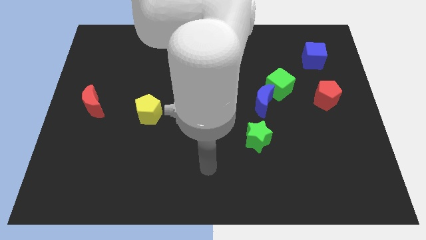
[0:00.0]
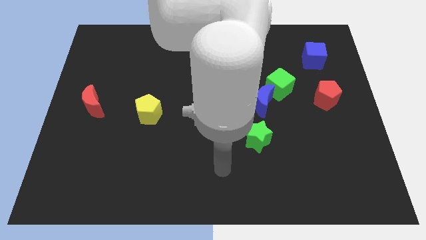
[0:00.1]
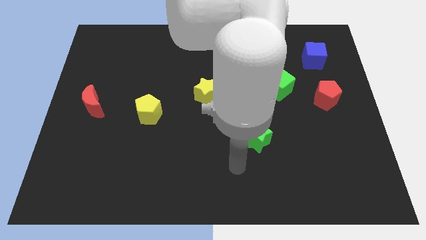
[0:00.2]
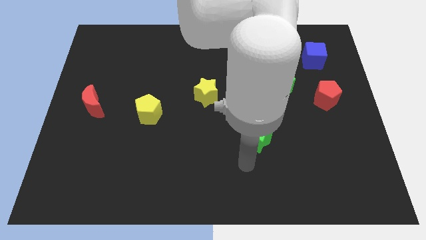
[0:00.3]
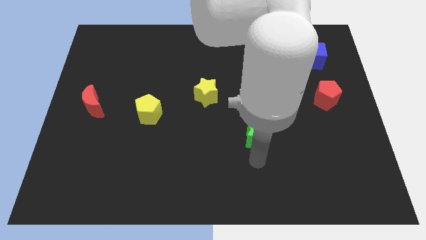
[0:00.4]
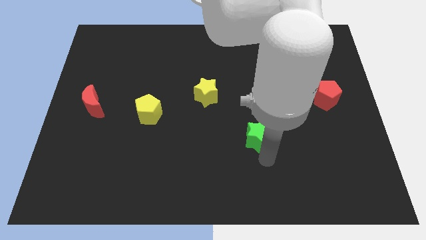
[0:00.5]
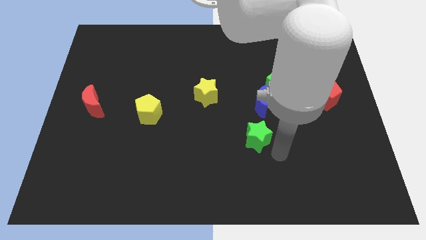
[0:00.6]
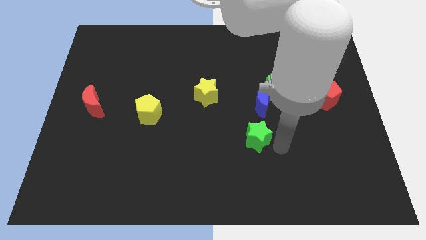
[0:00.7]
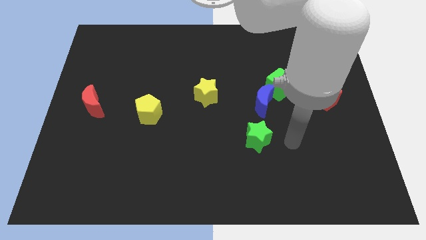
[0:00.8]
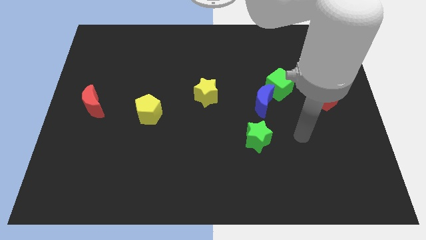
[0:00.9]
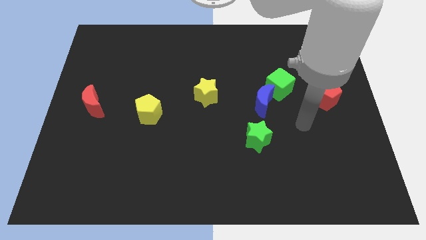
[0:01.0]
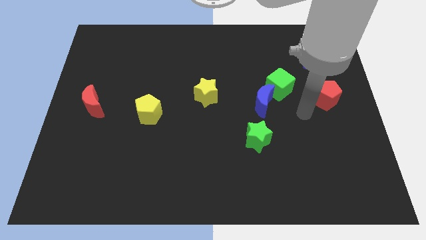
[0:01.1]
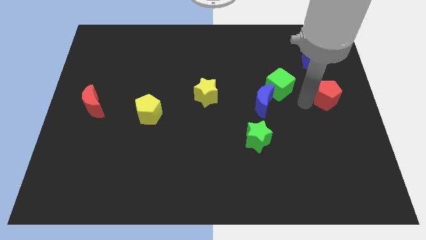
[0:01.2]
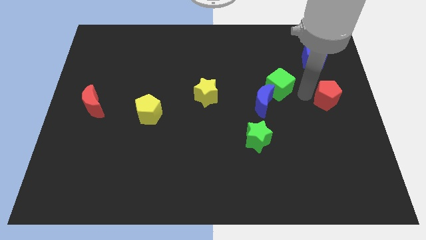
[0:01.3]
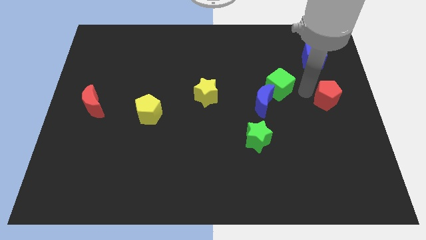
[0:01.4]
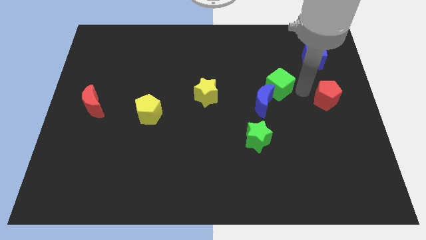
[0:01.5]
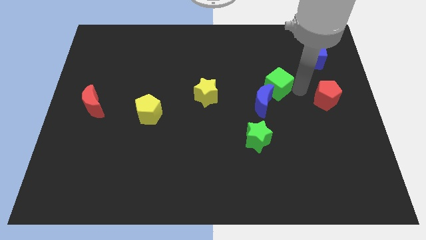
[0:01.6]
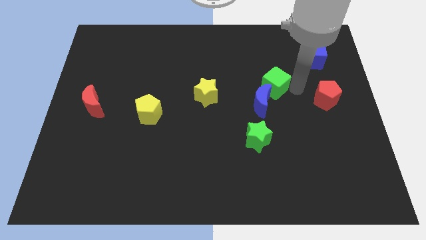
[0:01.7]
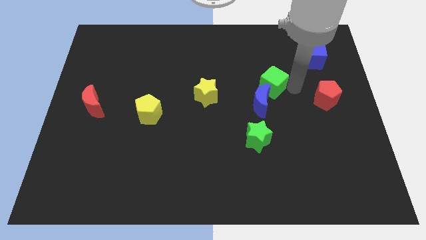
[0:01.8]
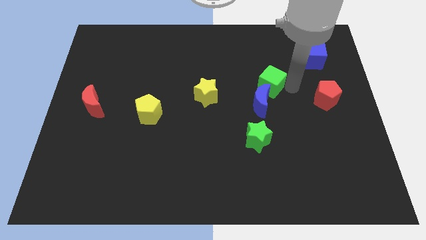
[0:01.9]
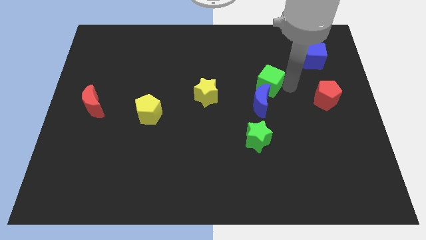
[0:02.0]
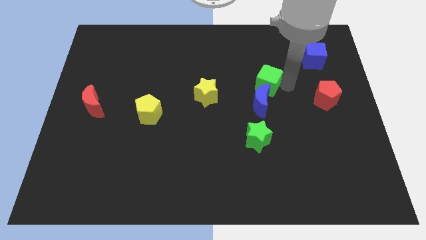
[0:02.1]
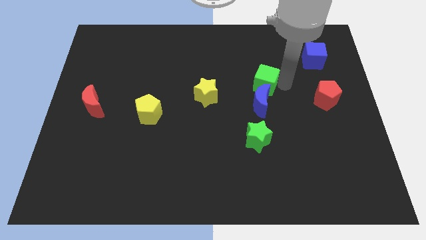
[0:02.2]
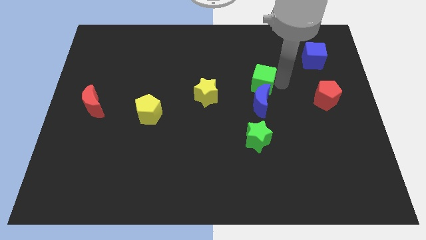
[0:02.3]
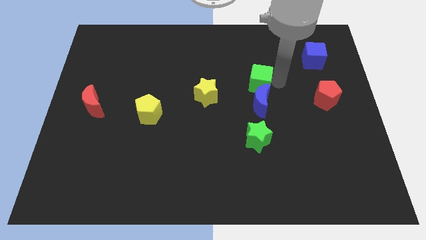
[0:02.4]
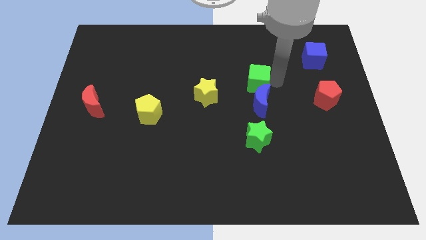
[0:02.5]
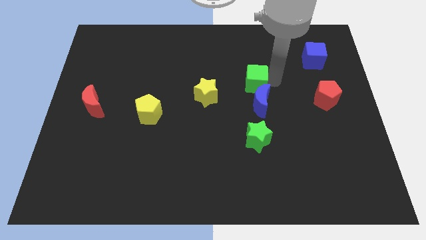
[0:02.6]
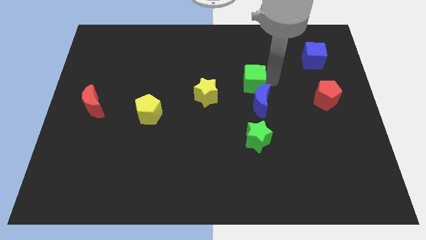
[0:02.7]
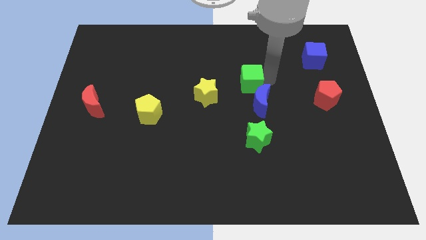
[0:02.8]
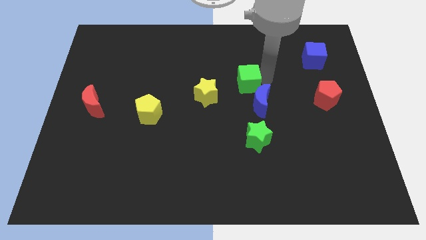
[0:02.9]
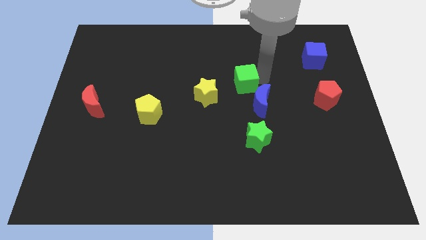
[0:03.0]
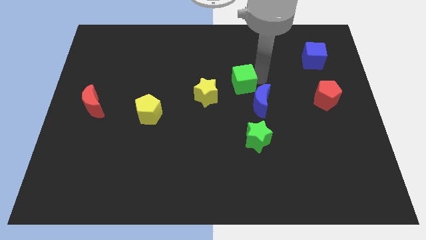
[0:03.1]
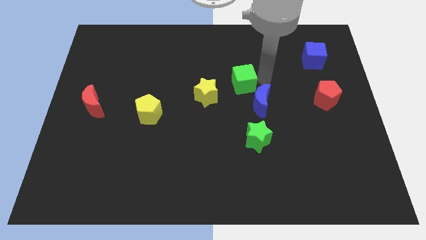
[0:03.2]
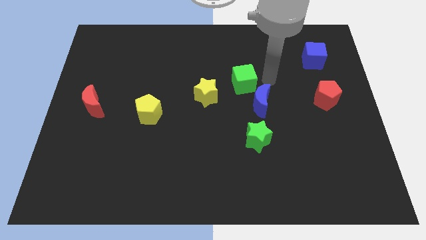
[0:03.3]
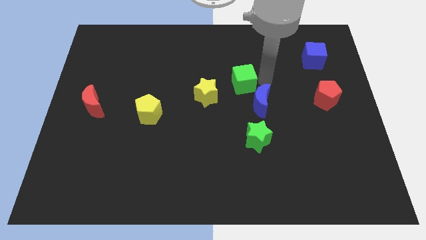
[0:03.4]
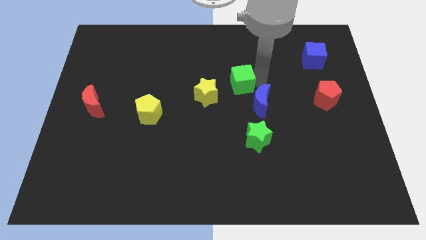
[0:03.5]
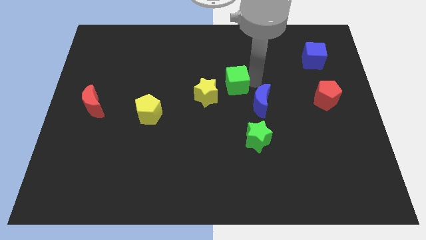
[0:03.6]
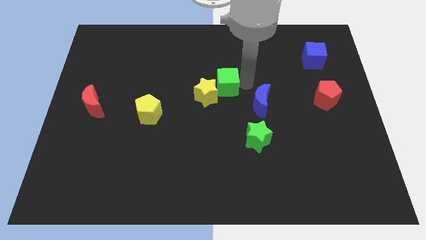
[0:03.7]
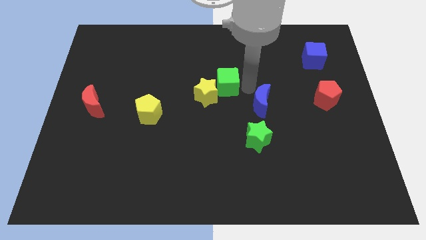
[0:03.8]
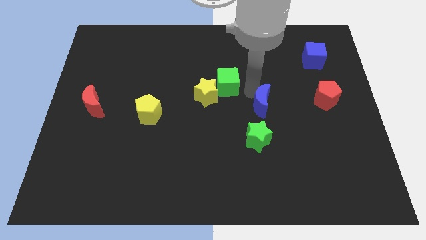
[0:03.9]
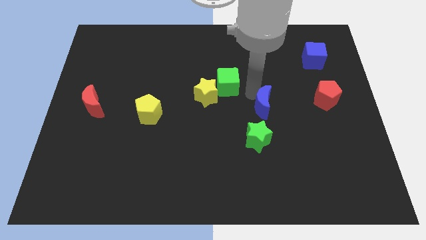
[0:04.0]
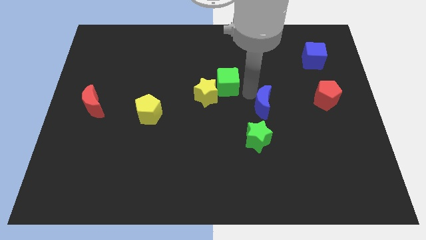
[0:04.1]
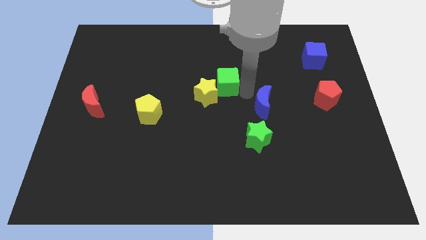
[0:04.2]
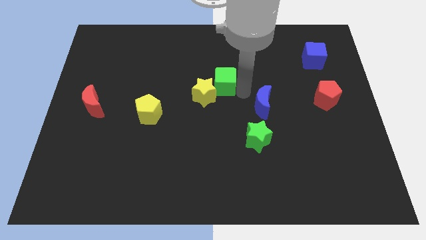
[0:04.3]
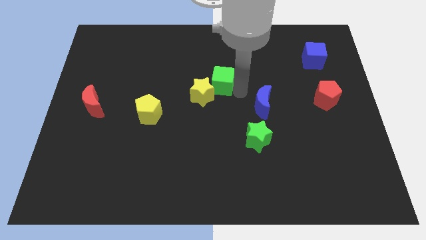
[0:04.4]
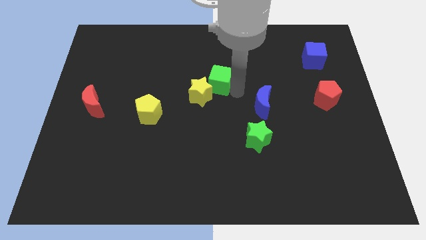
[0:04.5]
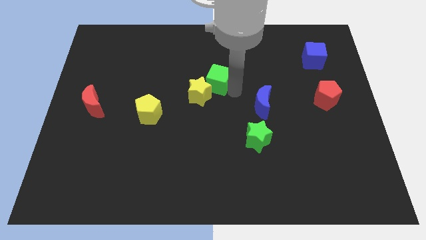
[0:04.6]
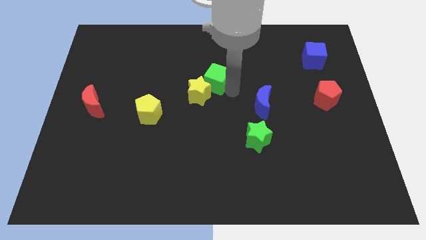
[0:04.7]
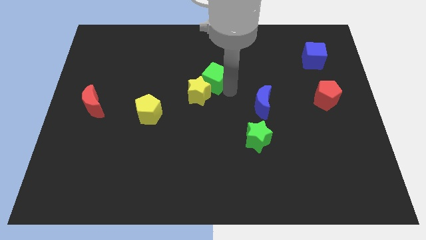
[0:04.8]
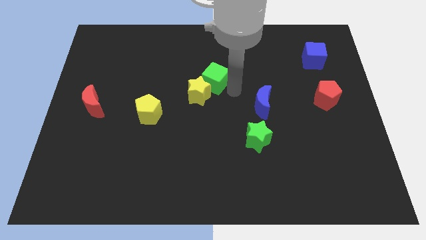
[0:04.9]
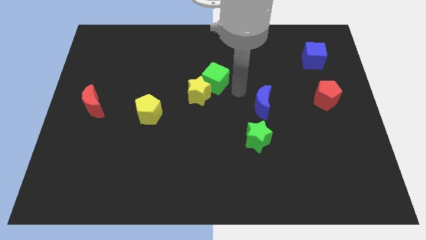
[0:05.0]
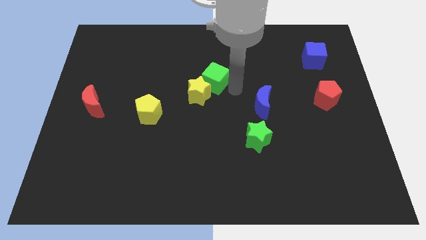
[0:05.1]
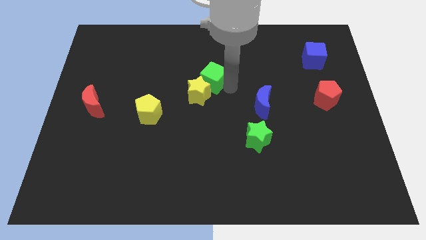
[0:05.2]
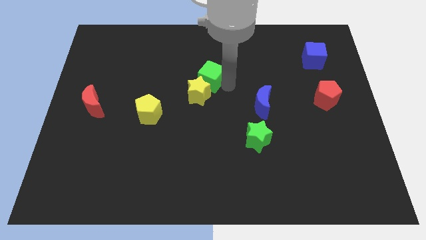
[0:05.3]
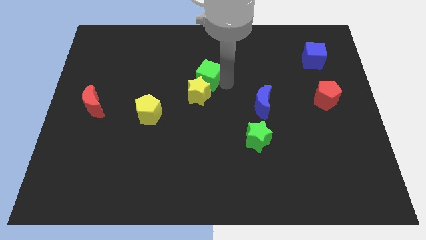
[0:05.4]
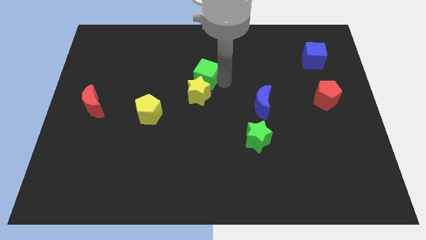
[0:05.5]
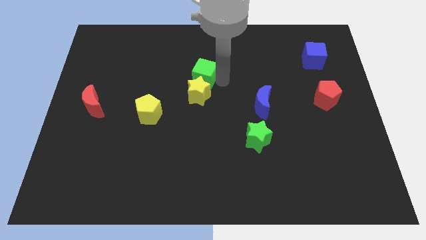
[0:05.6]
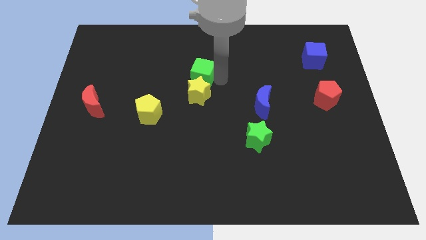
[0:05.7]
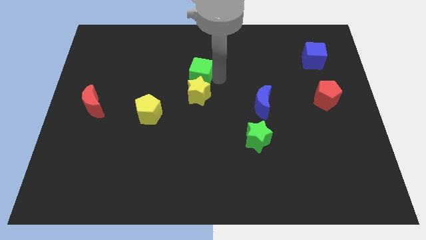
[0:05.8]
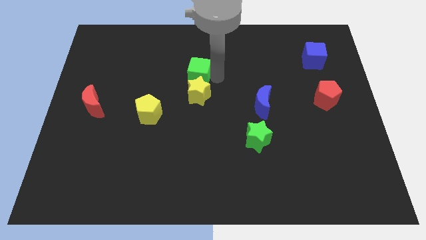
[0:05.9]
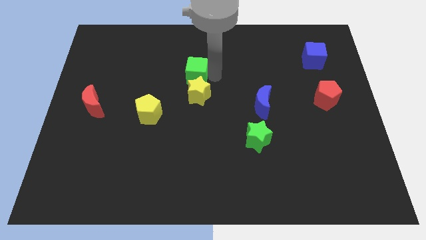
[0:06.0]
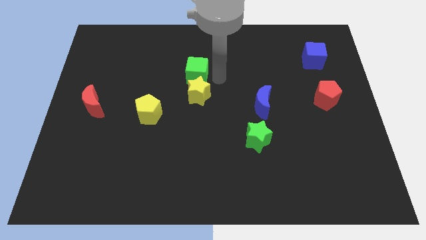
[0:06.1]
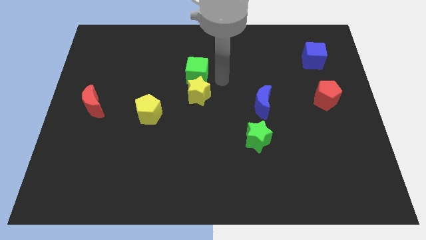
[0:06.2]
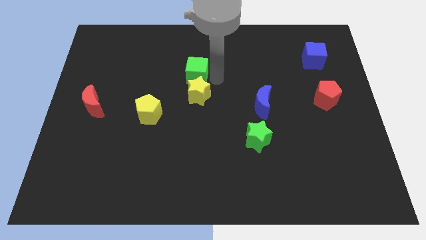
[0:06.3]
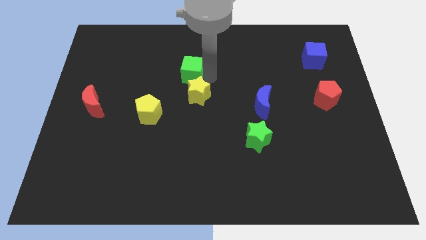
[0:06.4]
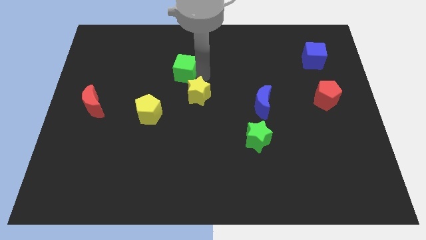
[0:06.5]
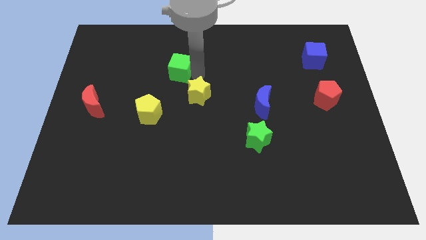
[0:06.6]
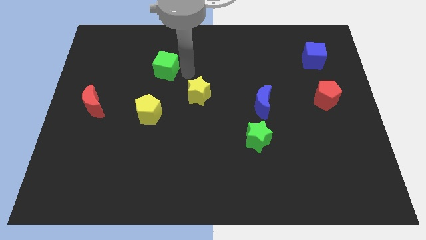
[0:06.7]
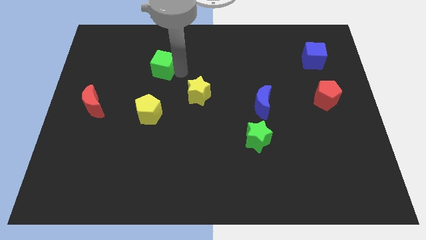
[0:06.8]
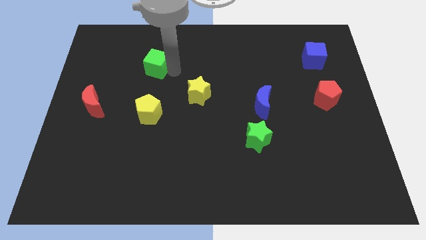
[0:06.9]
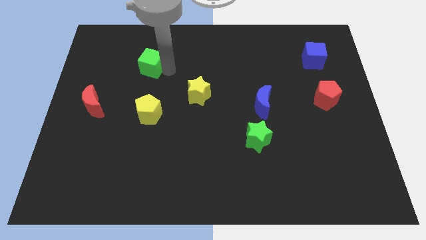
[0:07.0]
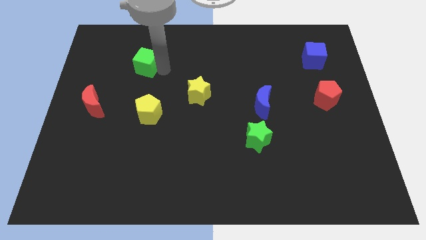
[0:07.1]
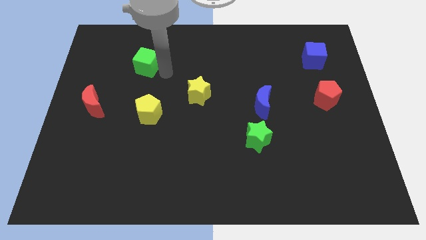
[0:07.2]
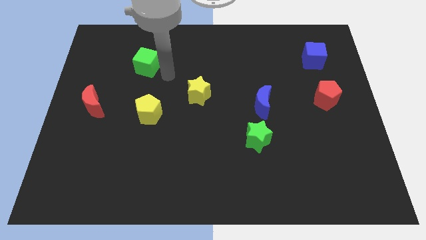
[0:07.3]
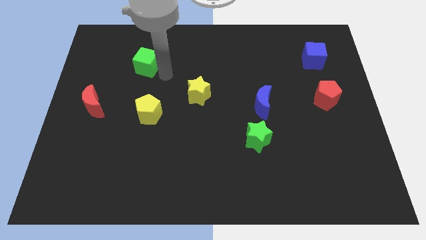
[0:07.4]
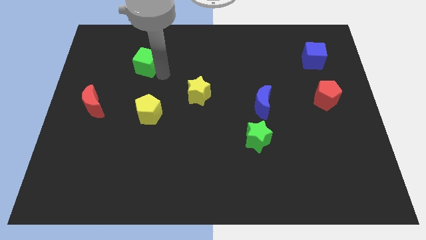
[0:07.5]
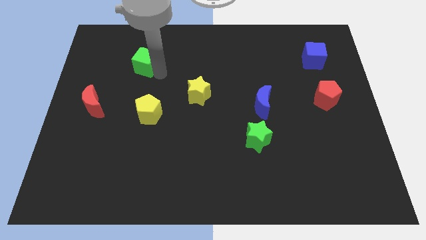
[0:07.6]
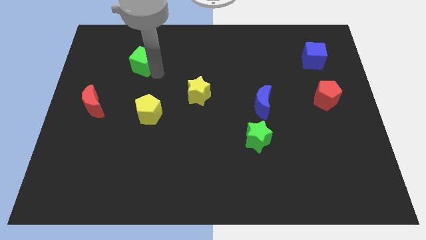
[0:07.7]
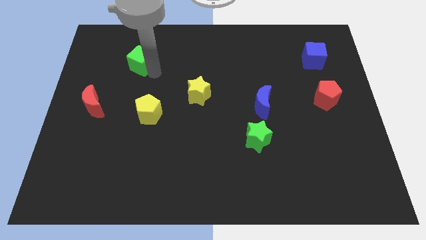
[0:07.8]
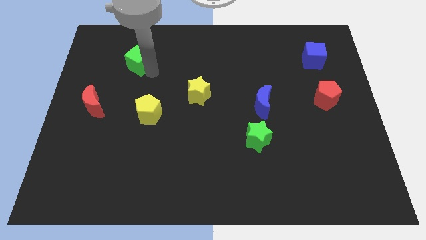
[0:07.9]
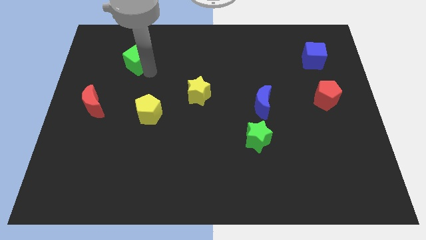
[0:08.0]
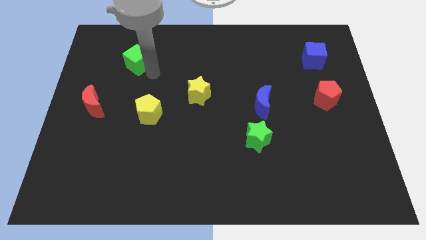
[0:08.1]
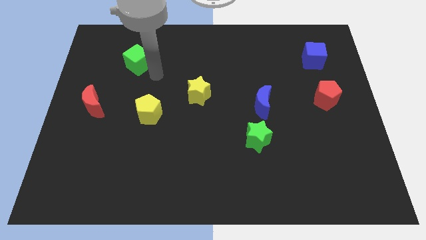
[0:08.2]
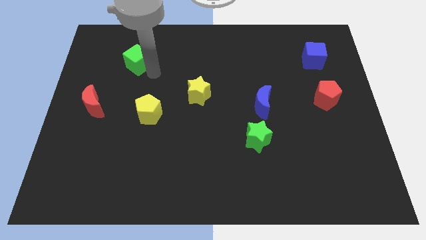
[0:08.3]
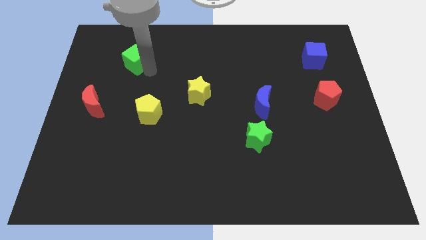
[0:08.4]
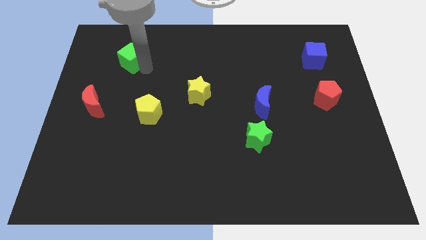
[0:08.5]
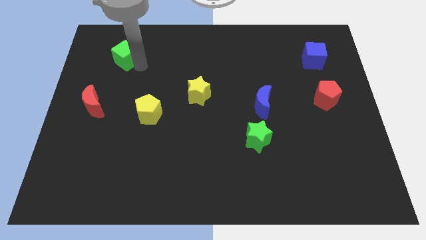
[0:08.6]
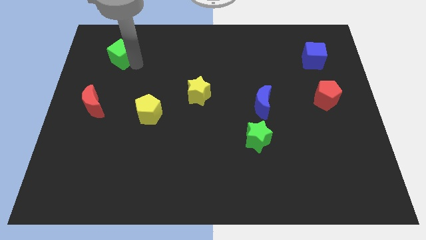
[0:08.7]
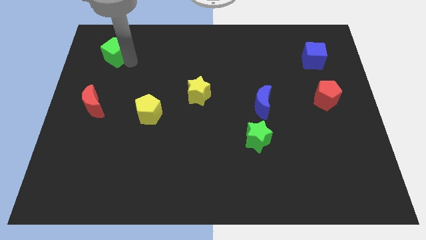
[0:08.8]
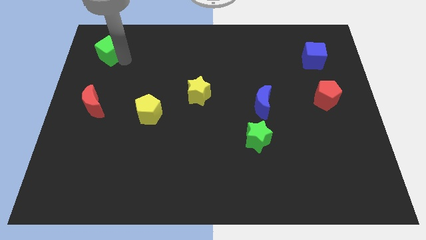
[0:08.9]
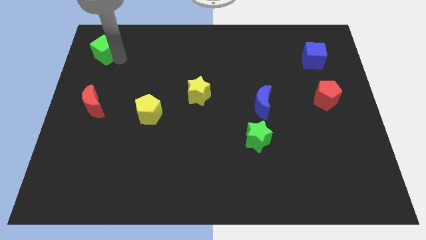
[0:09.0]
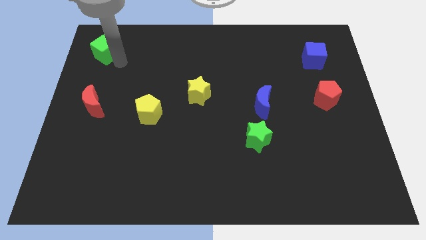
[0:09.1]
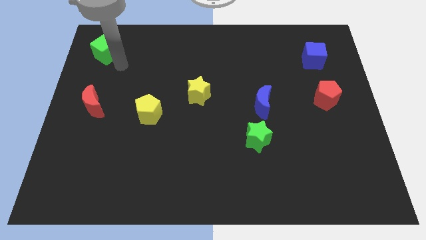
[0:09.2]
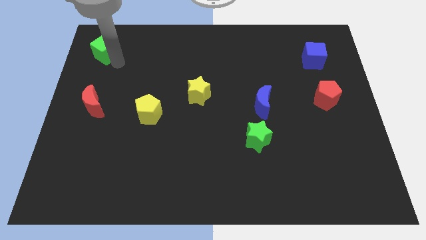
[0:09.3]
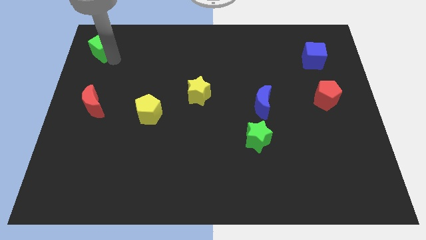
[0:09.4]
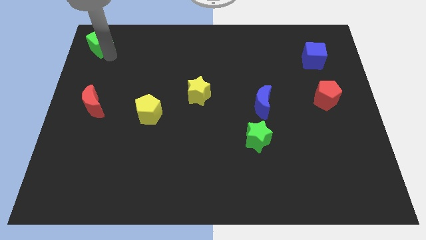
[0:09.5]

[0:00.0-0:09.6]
put the green cube to the top left corner
